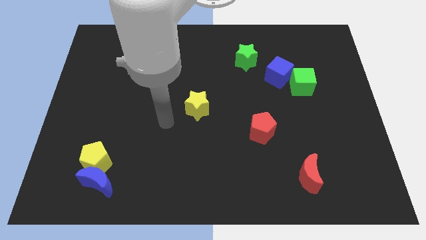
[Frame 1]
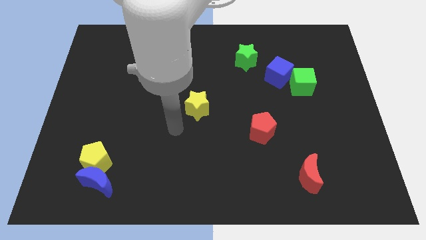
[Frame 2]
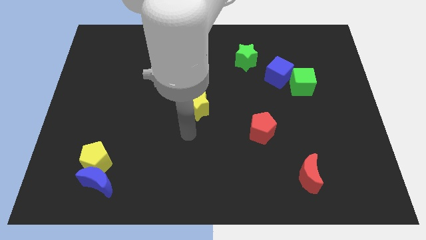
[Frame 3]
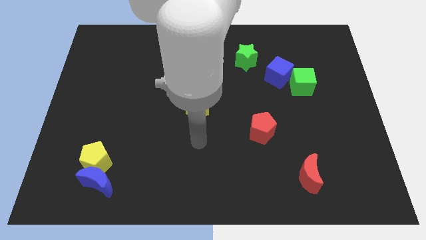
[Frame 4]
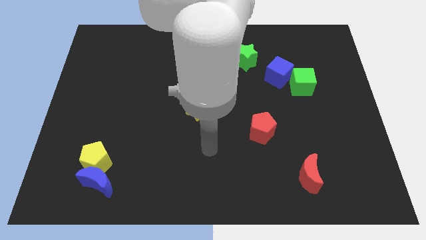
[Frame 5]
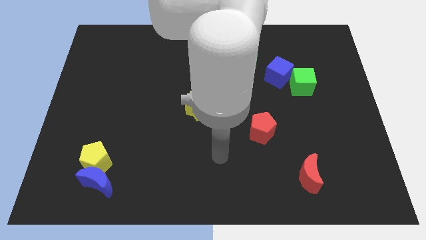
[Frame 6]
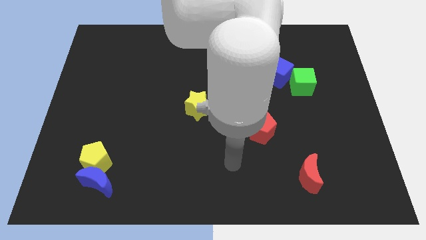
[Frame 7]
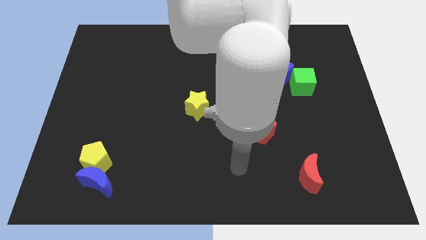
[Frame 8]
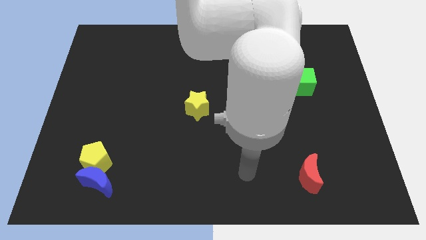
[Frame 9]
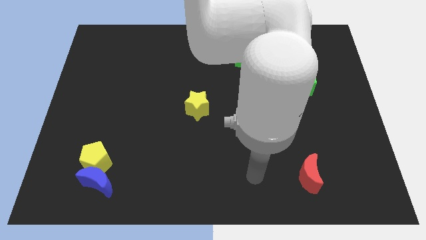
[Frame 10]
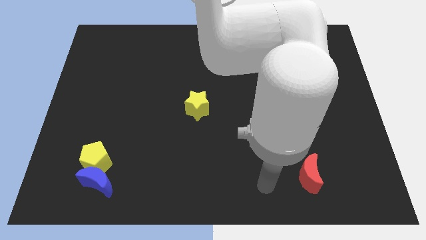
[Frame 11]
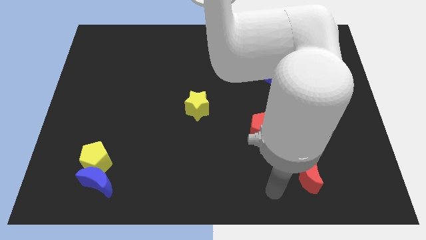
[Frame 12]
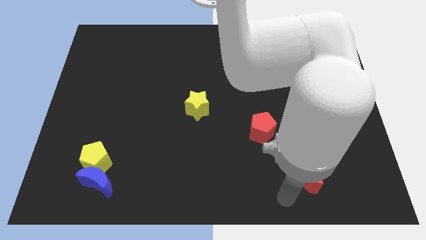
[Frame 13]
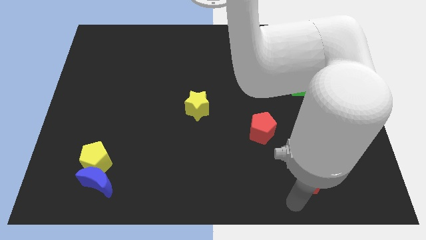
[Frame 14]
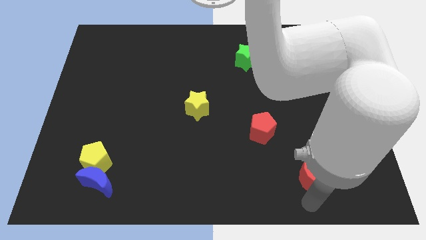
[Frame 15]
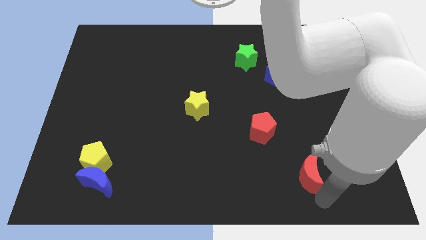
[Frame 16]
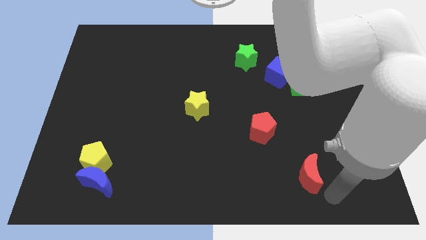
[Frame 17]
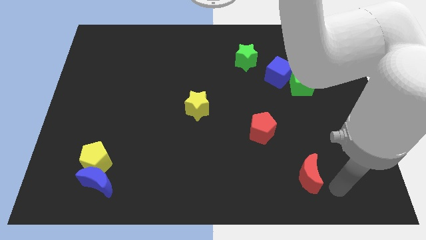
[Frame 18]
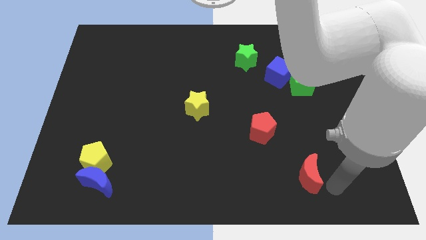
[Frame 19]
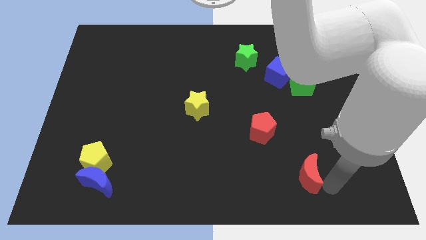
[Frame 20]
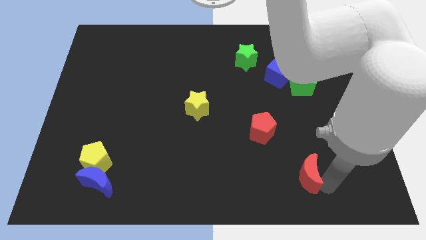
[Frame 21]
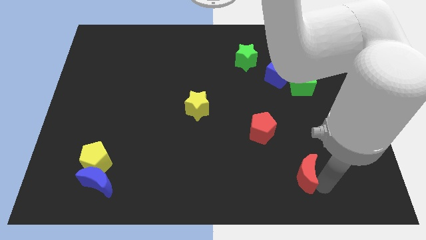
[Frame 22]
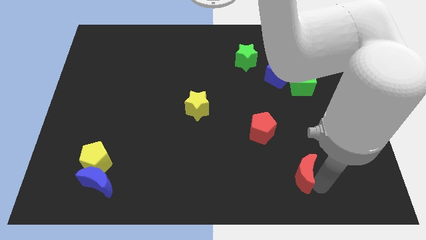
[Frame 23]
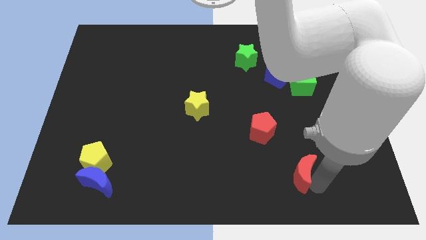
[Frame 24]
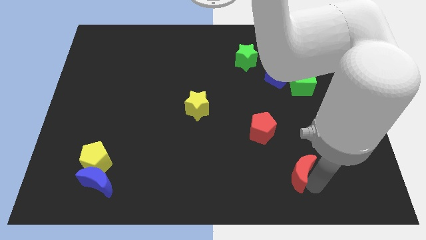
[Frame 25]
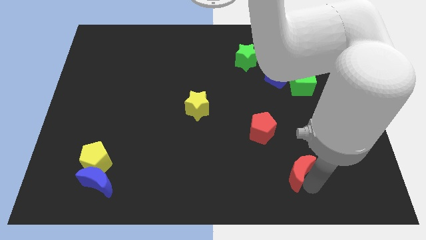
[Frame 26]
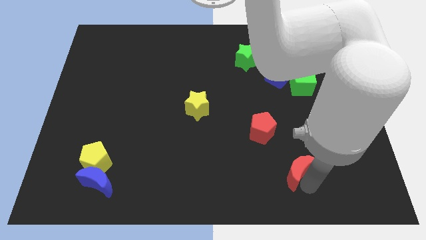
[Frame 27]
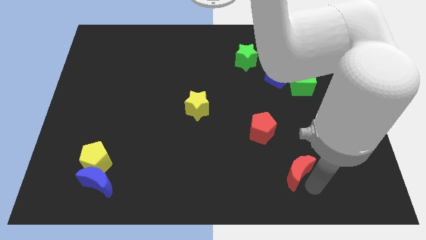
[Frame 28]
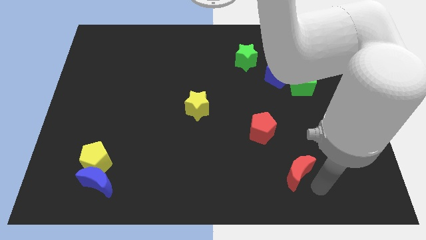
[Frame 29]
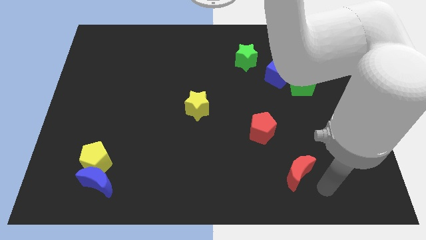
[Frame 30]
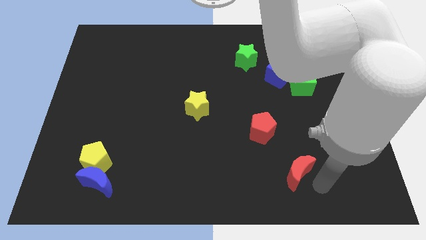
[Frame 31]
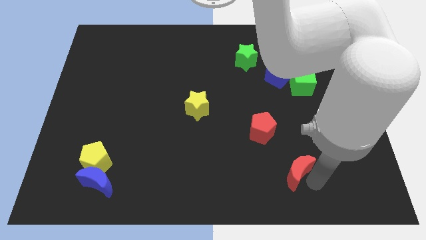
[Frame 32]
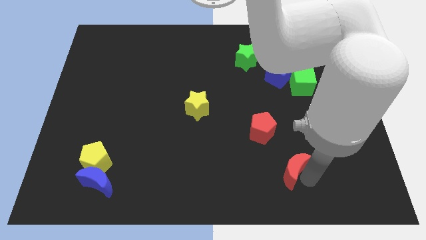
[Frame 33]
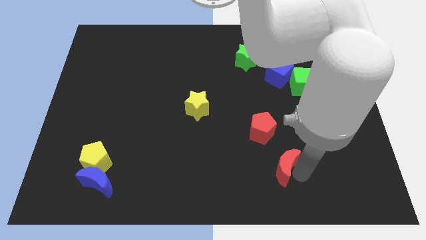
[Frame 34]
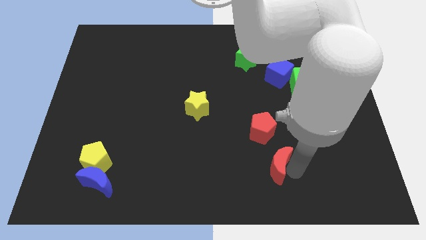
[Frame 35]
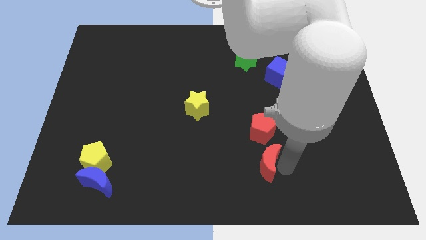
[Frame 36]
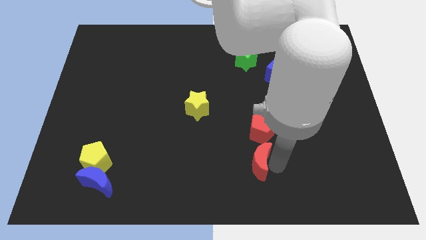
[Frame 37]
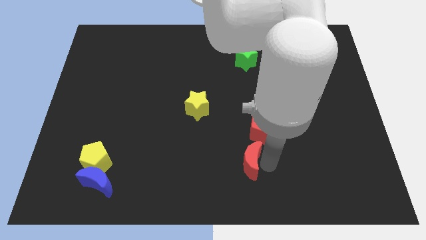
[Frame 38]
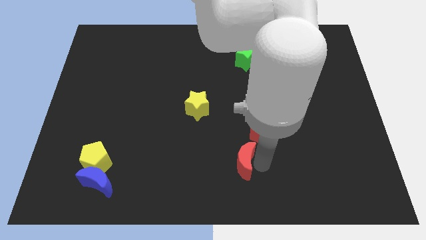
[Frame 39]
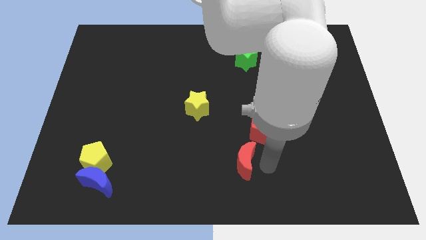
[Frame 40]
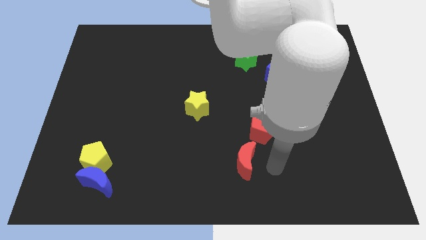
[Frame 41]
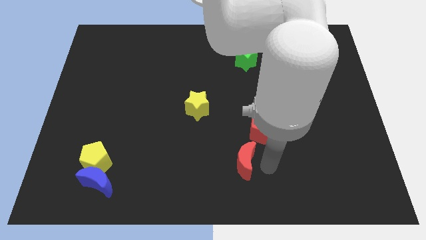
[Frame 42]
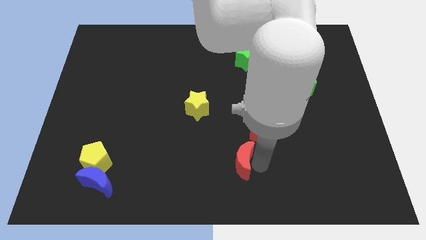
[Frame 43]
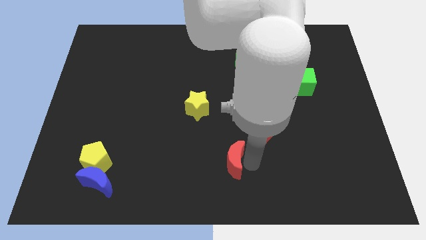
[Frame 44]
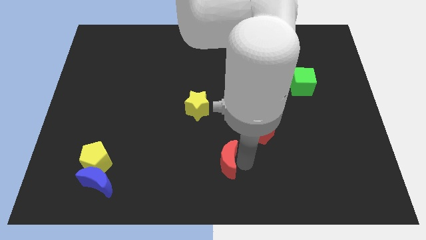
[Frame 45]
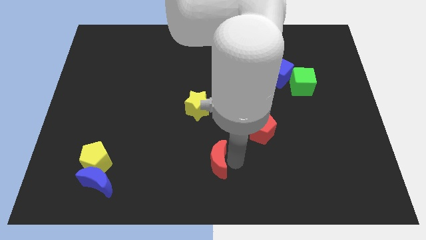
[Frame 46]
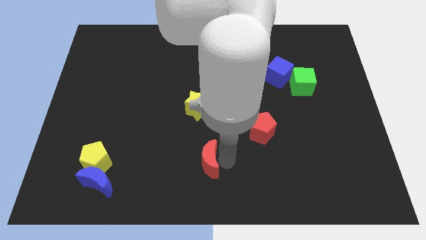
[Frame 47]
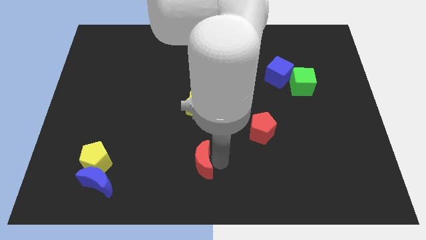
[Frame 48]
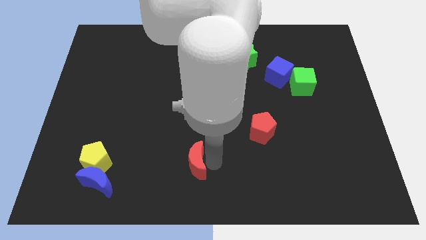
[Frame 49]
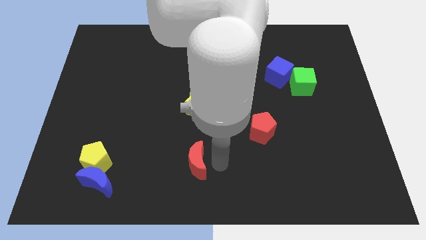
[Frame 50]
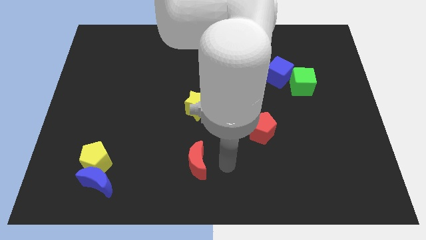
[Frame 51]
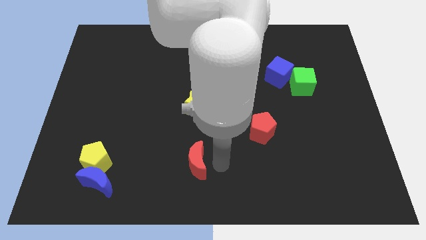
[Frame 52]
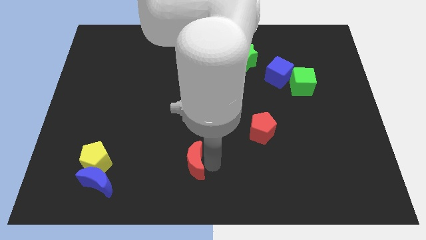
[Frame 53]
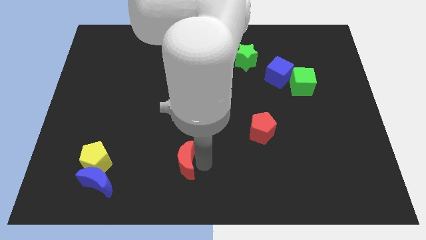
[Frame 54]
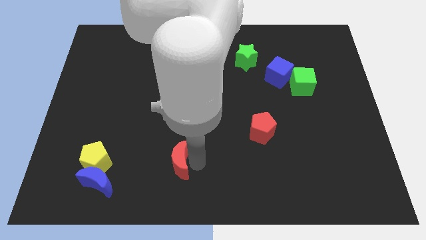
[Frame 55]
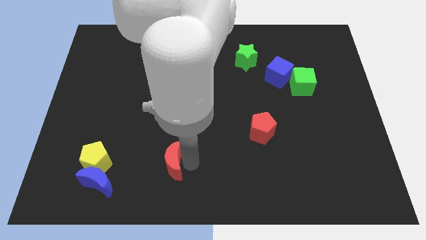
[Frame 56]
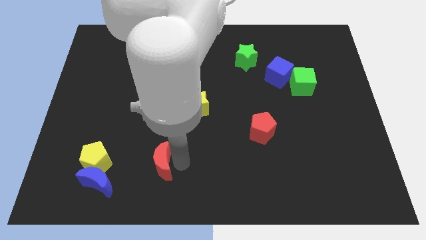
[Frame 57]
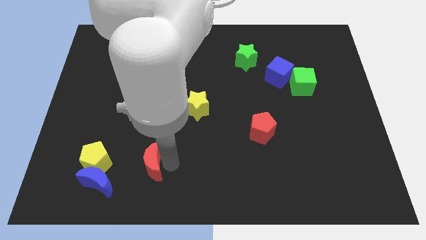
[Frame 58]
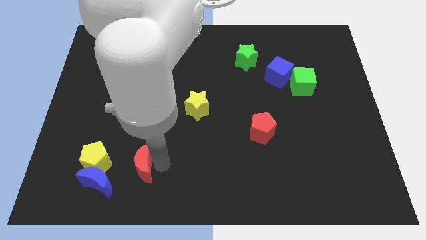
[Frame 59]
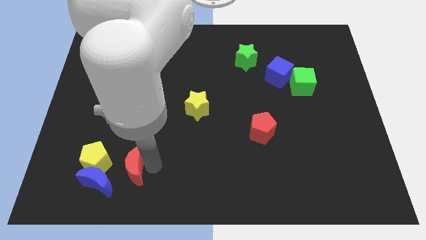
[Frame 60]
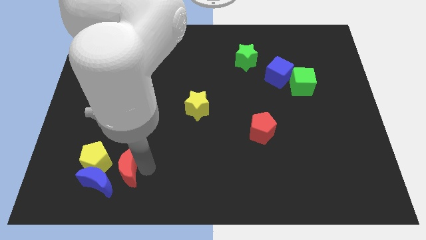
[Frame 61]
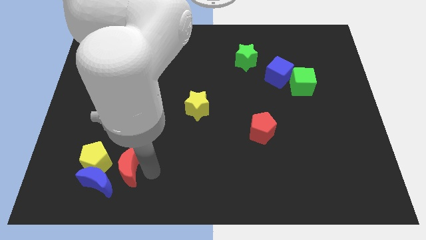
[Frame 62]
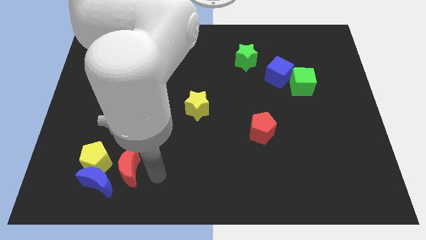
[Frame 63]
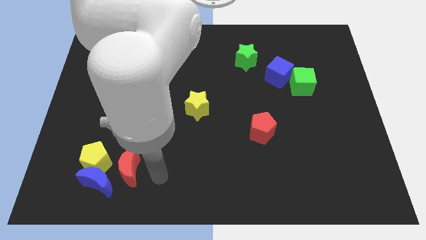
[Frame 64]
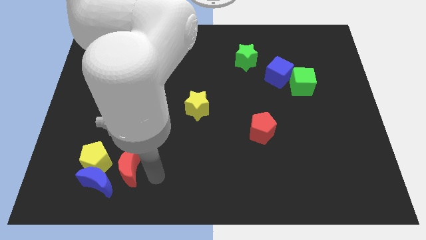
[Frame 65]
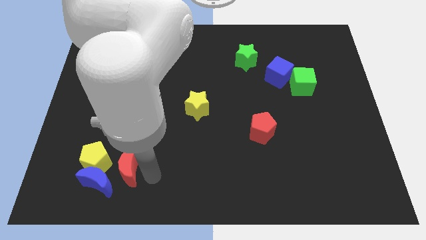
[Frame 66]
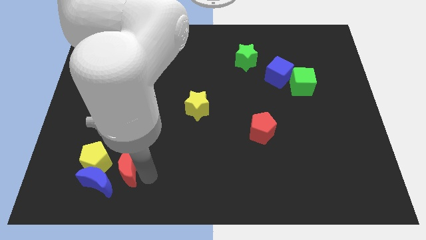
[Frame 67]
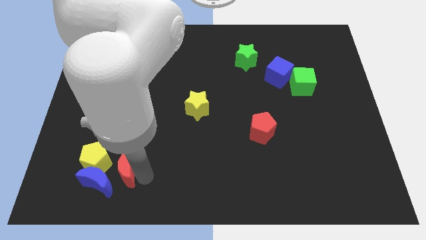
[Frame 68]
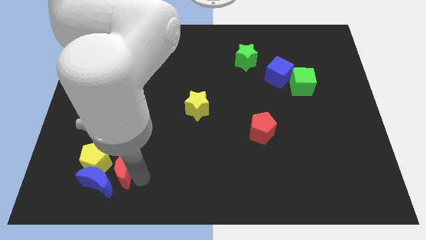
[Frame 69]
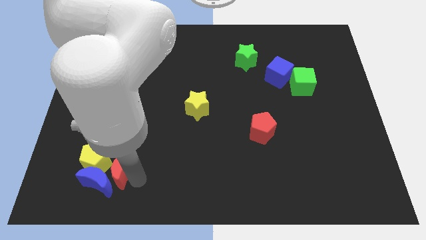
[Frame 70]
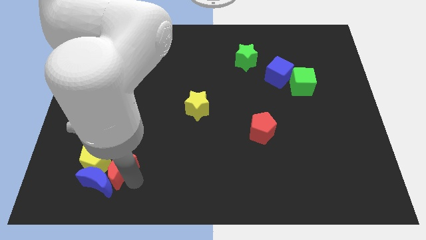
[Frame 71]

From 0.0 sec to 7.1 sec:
slide the red moon close to the yellow pentagon

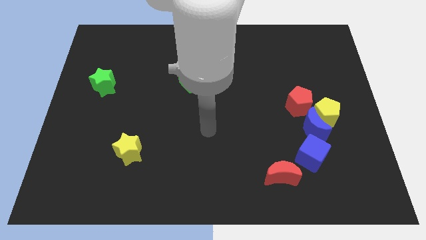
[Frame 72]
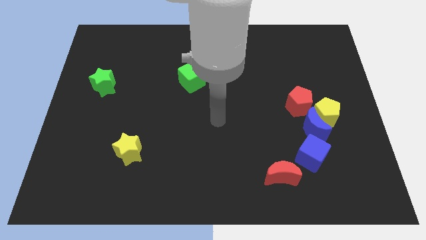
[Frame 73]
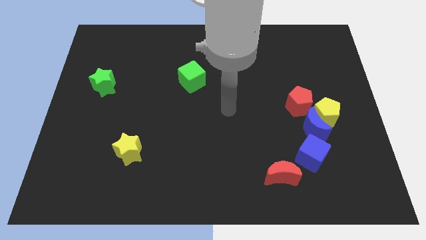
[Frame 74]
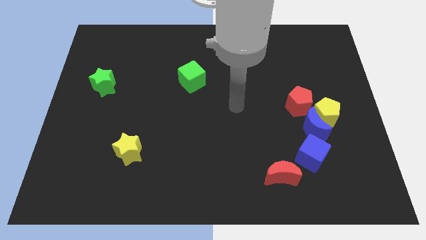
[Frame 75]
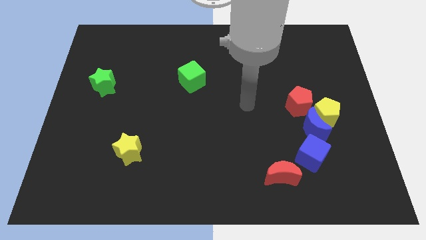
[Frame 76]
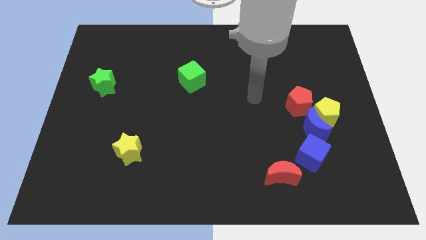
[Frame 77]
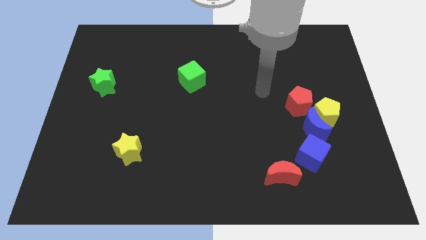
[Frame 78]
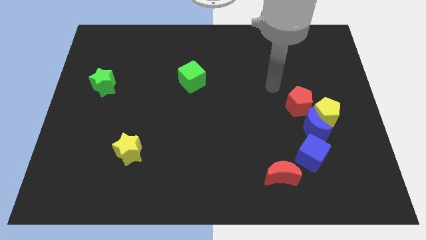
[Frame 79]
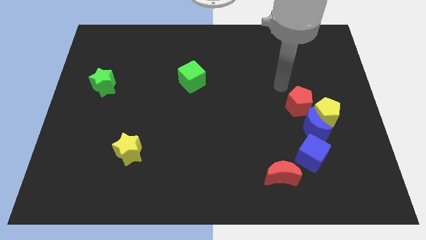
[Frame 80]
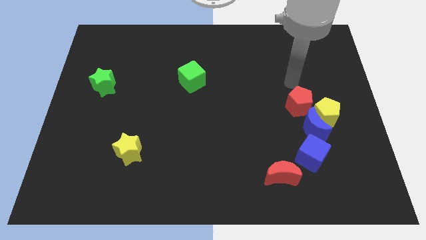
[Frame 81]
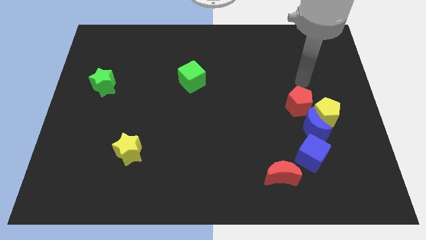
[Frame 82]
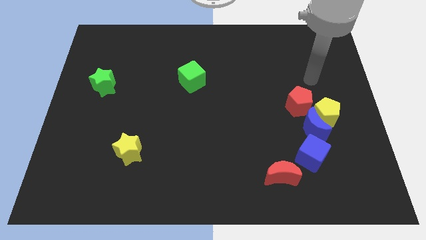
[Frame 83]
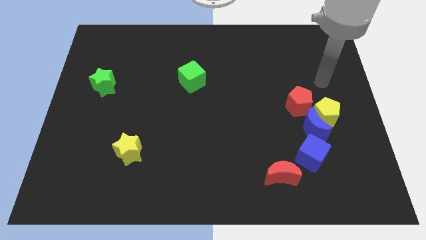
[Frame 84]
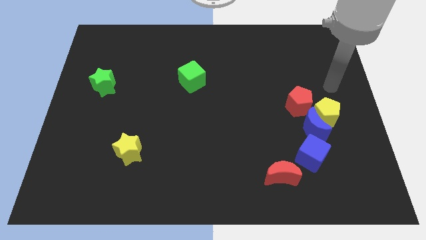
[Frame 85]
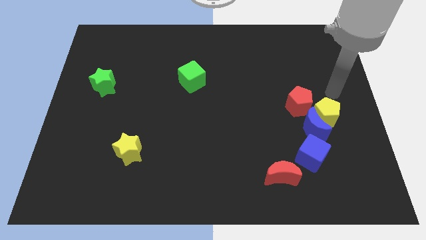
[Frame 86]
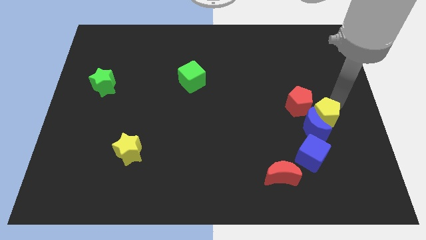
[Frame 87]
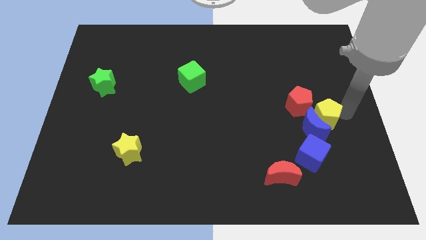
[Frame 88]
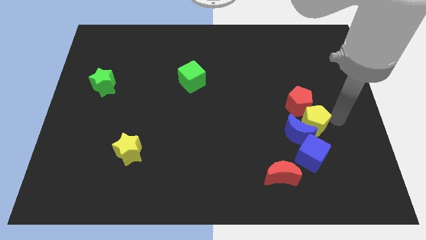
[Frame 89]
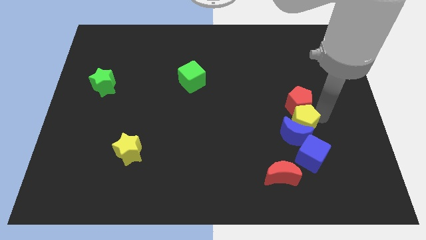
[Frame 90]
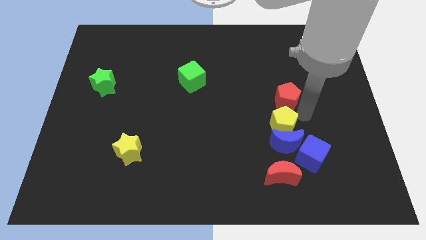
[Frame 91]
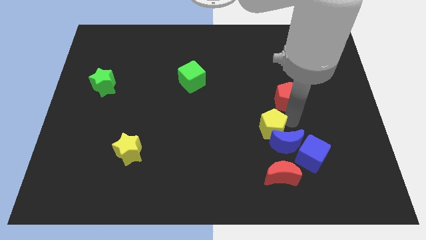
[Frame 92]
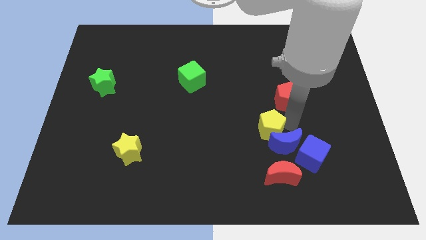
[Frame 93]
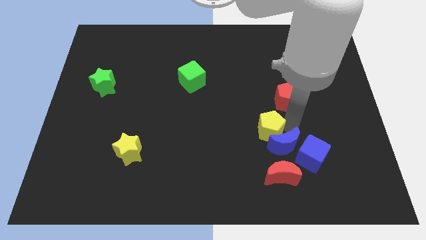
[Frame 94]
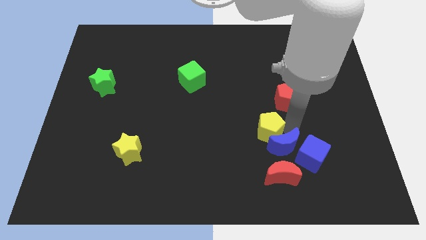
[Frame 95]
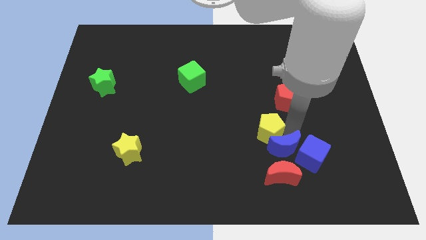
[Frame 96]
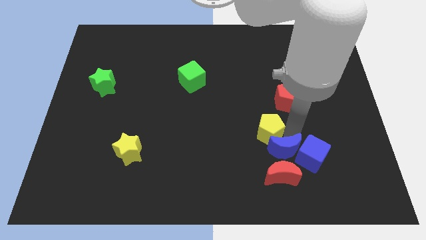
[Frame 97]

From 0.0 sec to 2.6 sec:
push the blue moon next to the red moon
